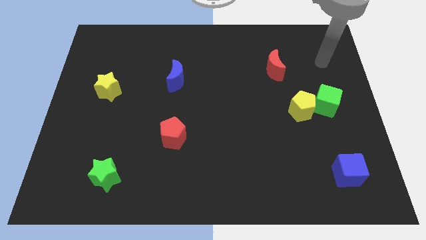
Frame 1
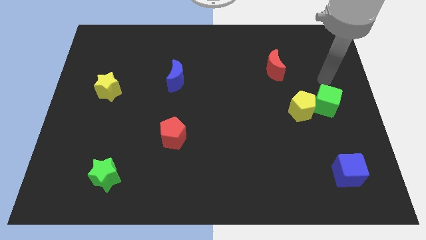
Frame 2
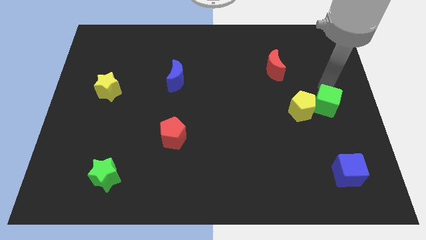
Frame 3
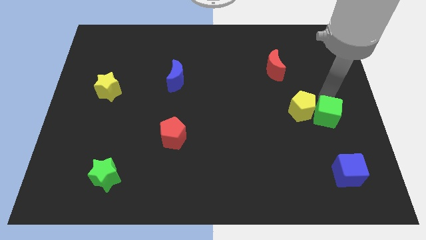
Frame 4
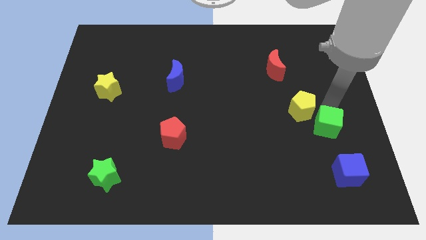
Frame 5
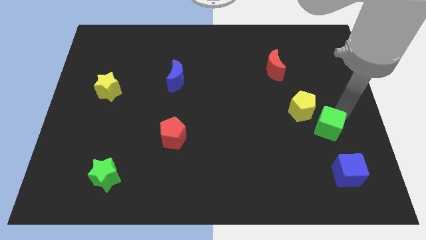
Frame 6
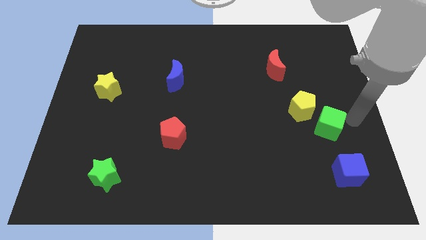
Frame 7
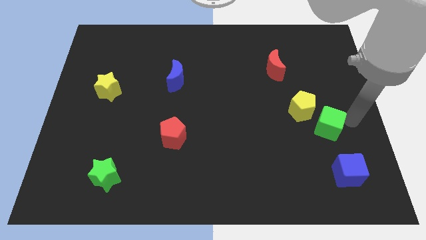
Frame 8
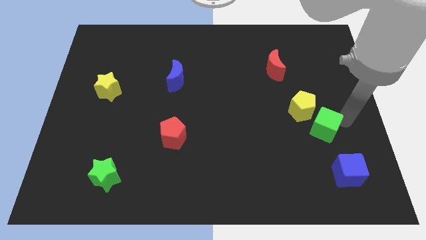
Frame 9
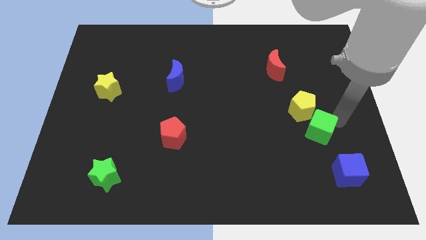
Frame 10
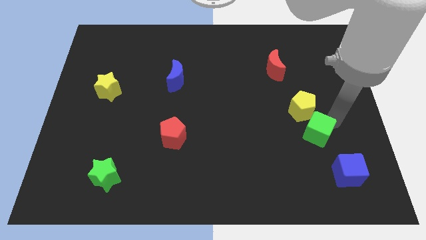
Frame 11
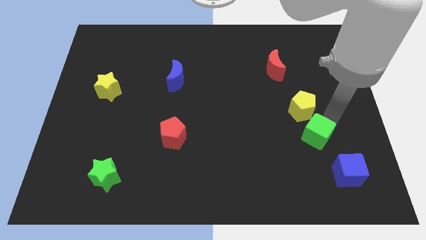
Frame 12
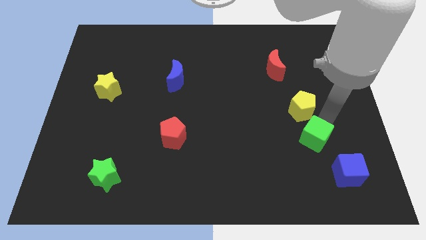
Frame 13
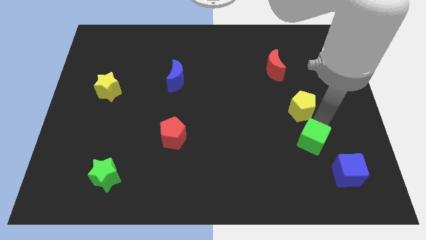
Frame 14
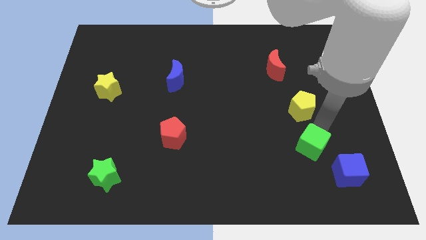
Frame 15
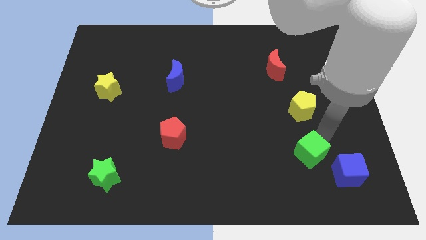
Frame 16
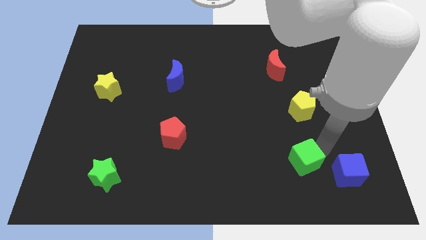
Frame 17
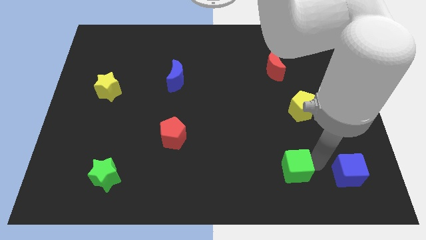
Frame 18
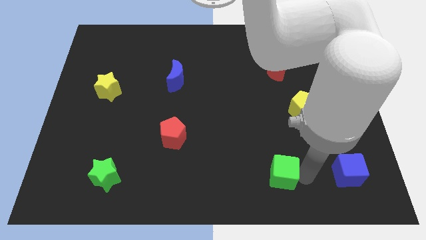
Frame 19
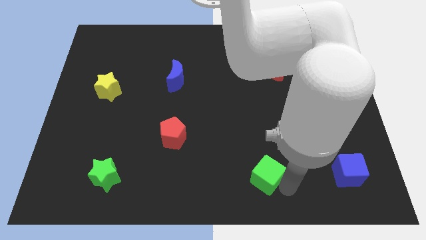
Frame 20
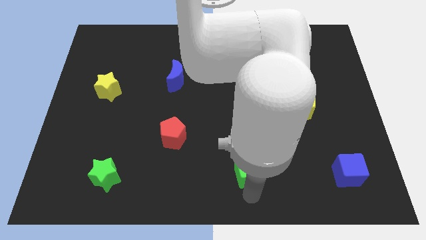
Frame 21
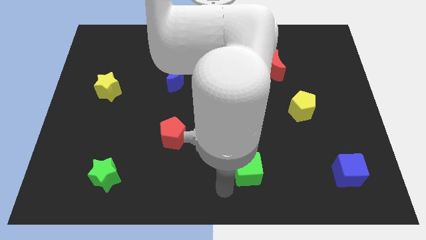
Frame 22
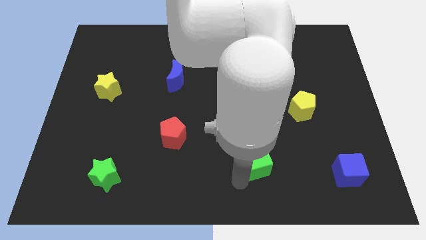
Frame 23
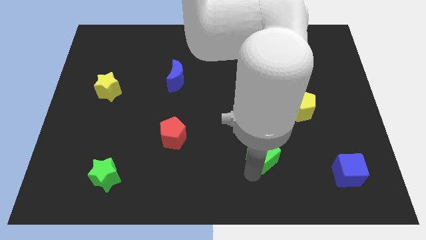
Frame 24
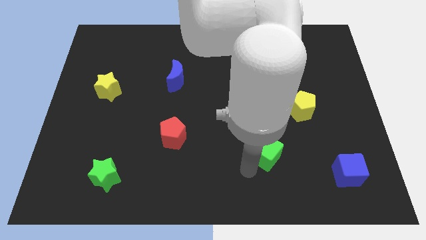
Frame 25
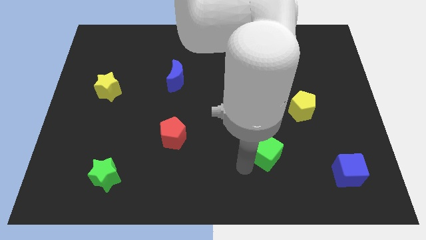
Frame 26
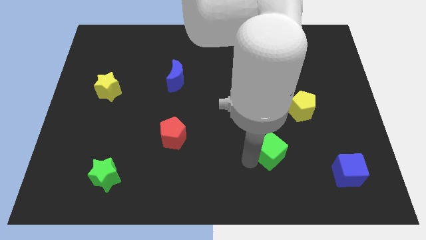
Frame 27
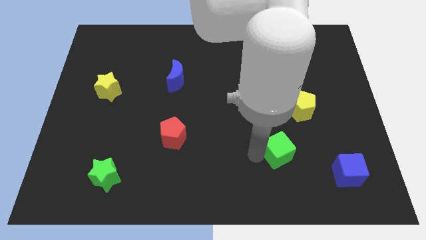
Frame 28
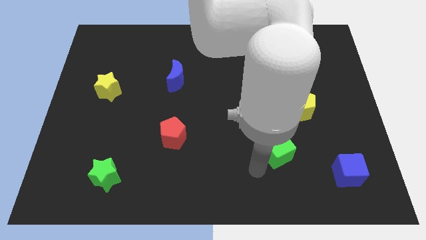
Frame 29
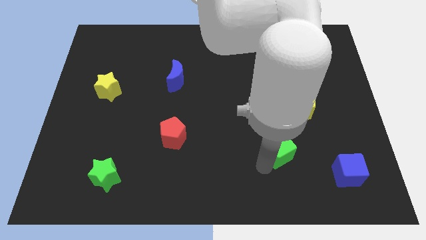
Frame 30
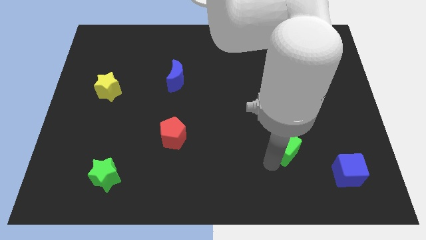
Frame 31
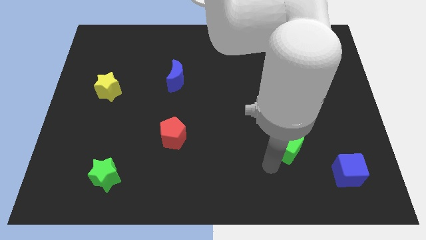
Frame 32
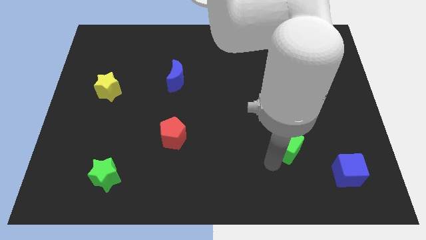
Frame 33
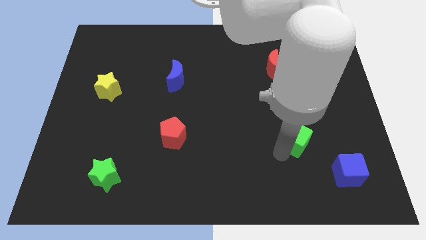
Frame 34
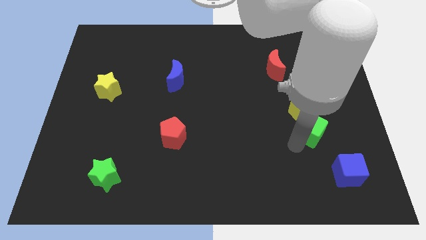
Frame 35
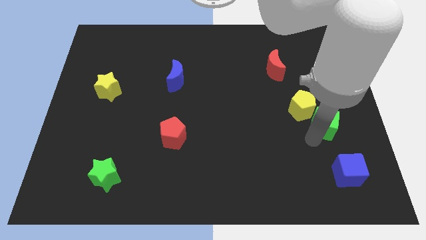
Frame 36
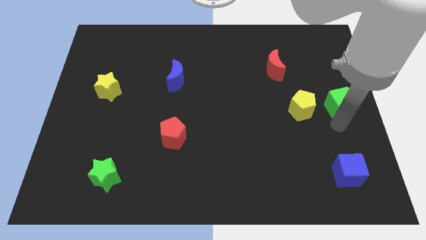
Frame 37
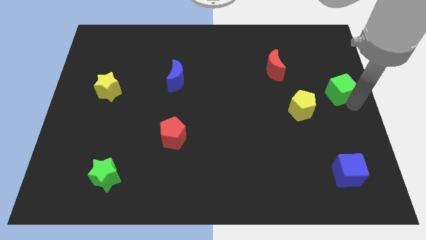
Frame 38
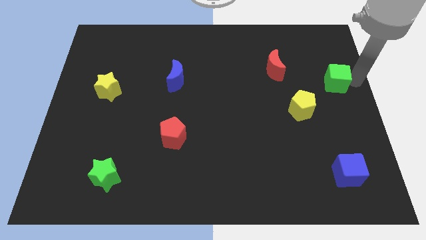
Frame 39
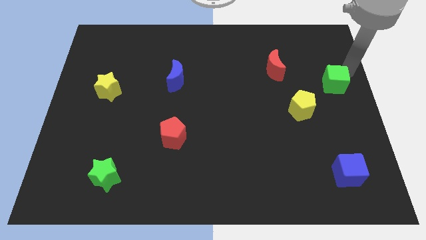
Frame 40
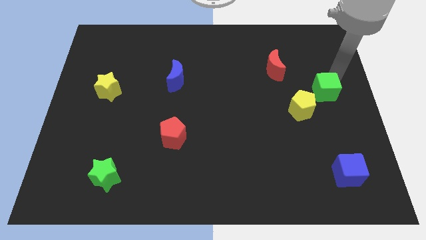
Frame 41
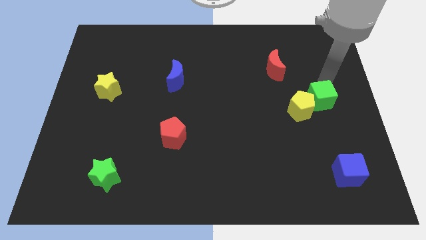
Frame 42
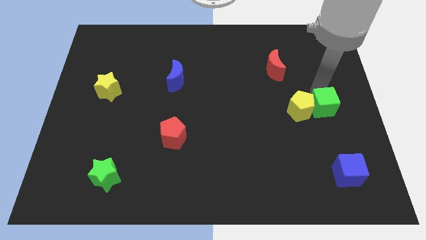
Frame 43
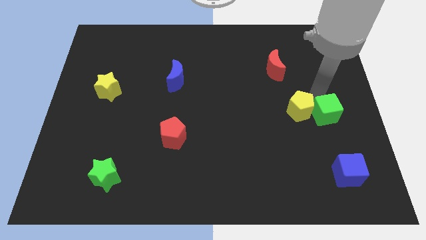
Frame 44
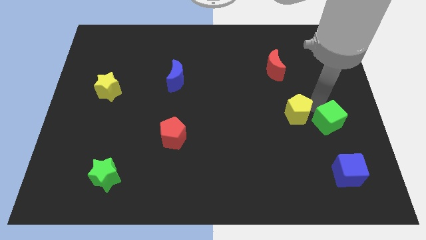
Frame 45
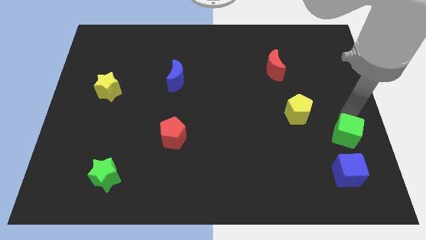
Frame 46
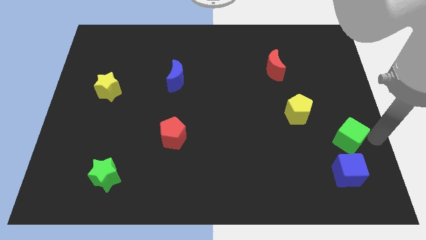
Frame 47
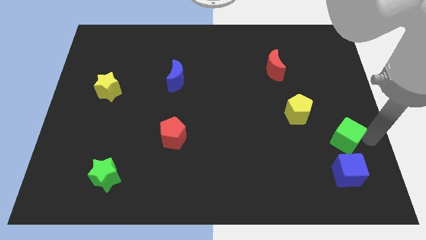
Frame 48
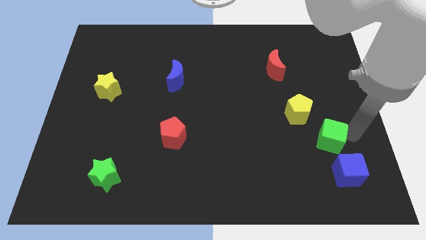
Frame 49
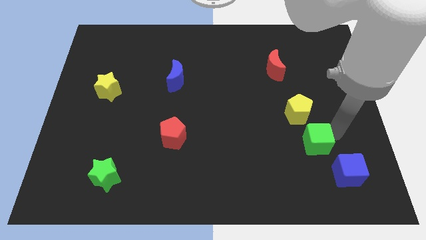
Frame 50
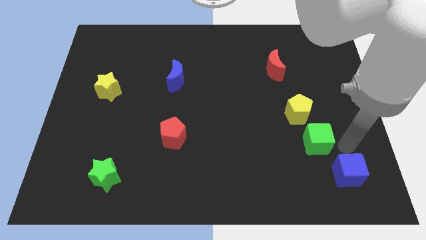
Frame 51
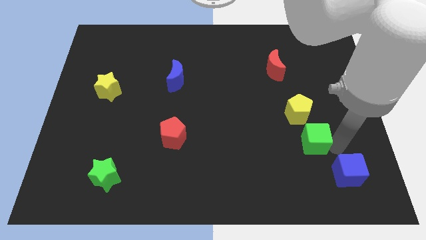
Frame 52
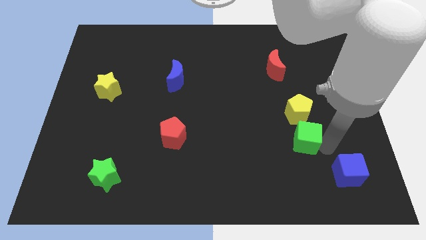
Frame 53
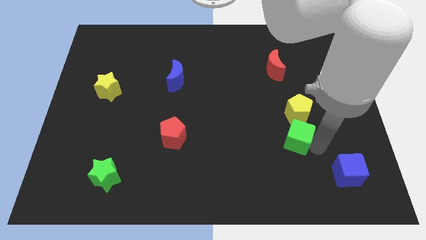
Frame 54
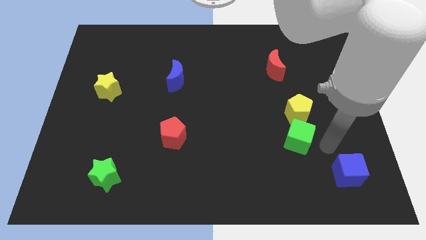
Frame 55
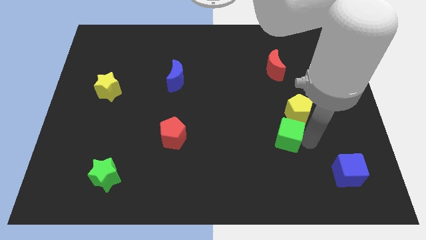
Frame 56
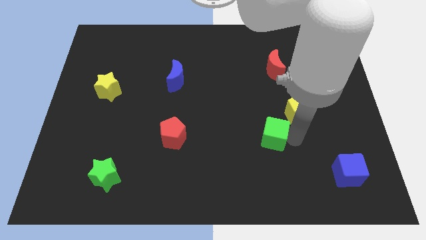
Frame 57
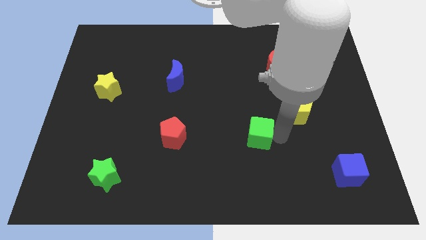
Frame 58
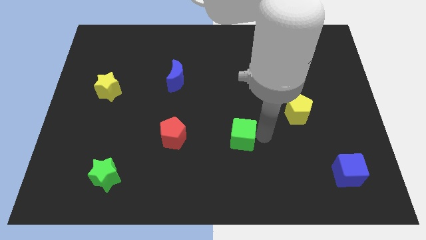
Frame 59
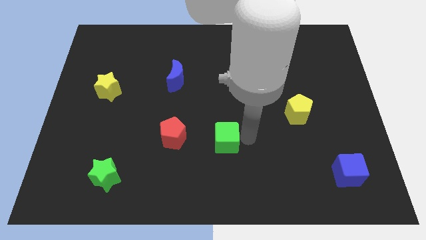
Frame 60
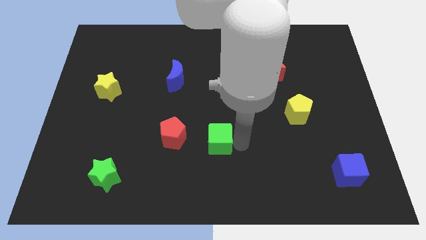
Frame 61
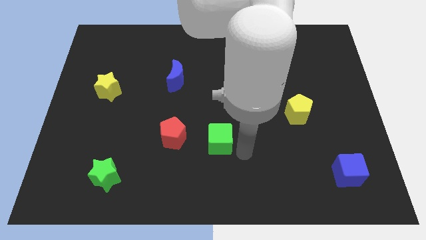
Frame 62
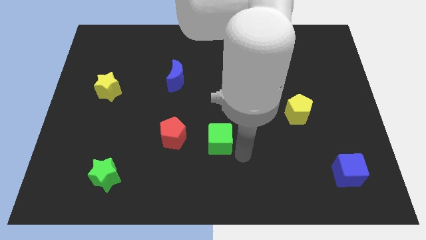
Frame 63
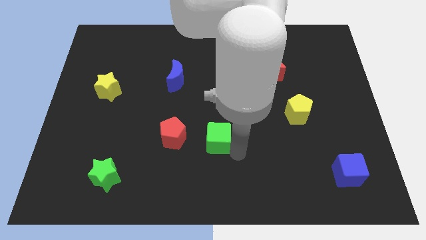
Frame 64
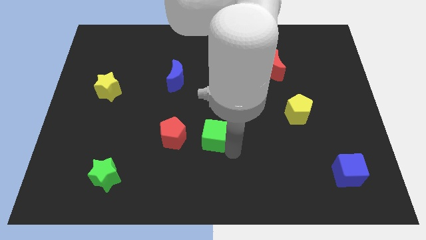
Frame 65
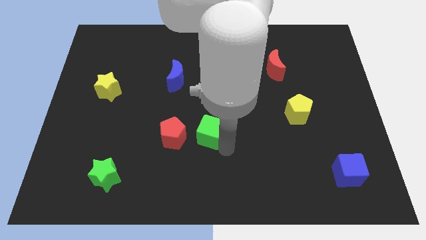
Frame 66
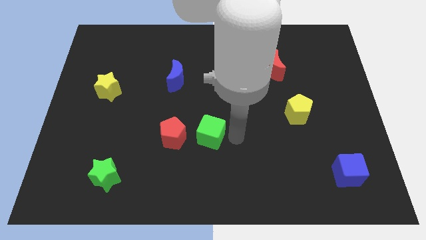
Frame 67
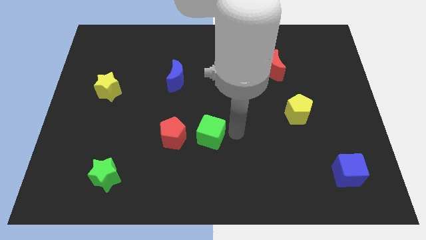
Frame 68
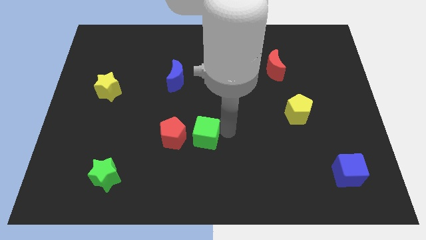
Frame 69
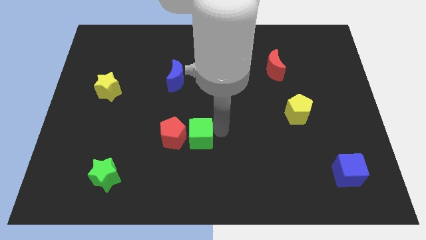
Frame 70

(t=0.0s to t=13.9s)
put the green cube towards the red pentagon
